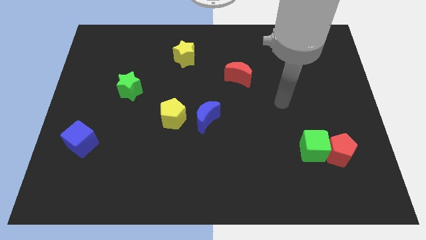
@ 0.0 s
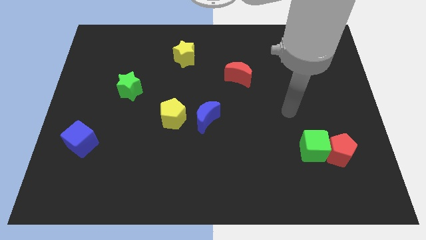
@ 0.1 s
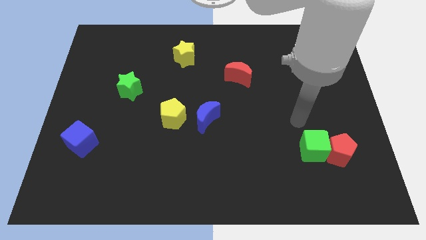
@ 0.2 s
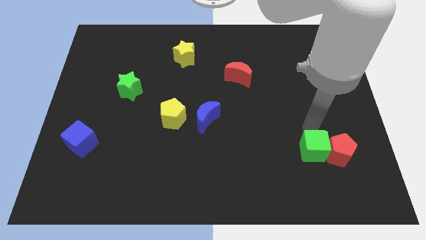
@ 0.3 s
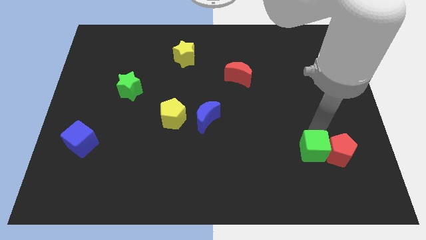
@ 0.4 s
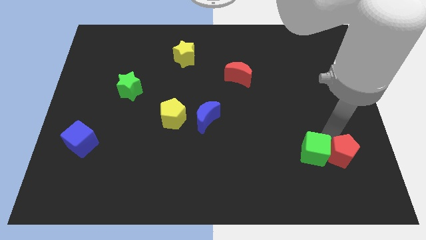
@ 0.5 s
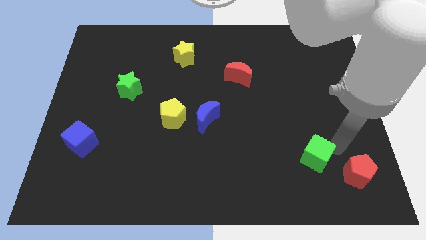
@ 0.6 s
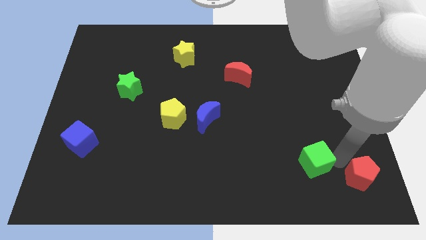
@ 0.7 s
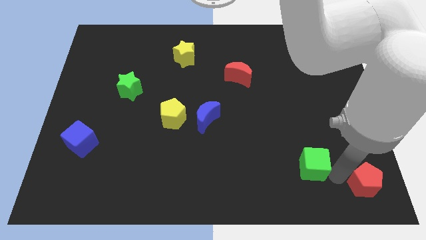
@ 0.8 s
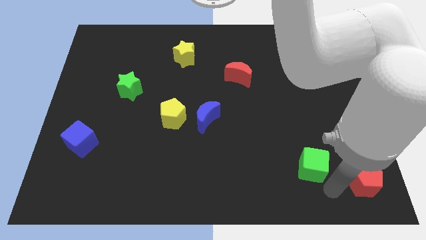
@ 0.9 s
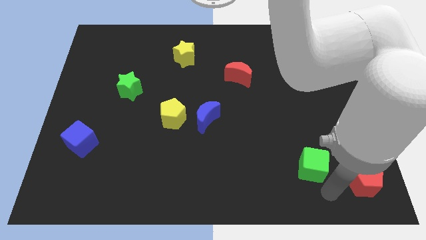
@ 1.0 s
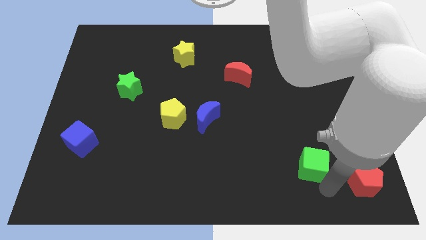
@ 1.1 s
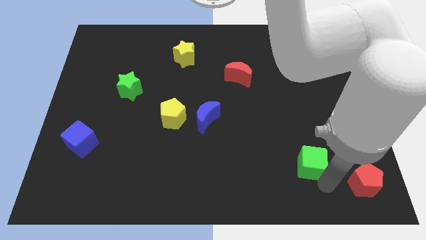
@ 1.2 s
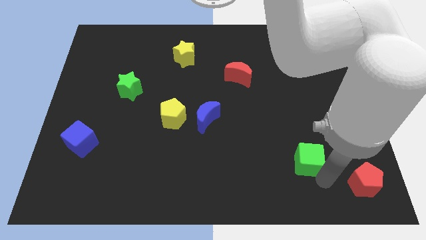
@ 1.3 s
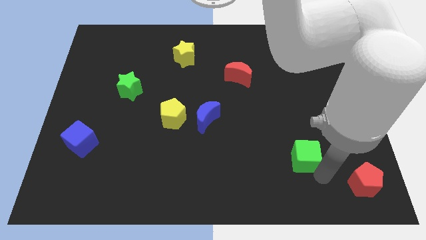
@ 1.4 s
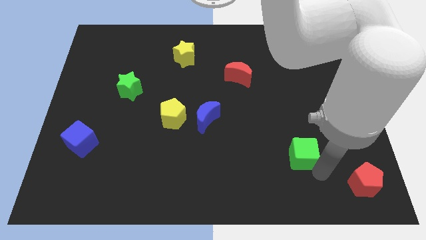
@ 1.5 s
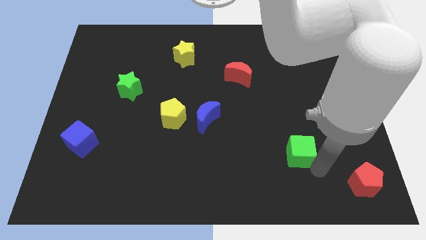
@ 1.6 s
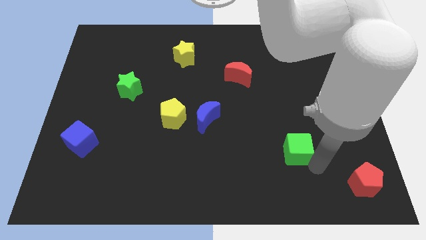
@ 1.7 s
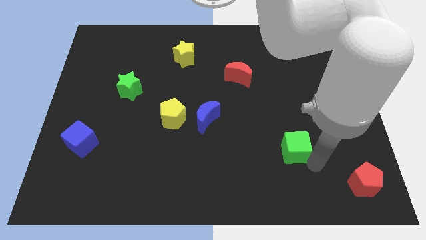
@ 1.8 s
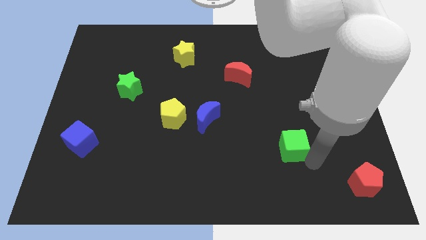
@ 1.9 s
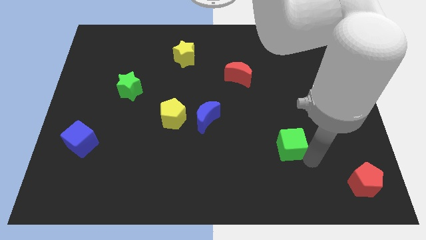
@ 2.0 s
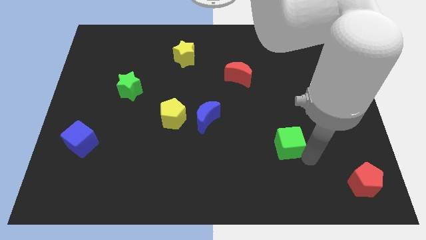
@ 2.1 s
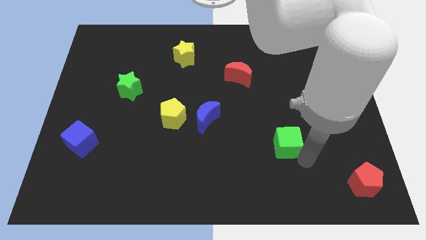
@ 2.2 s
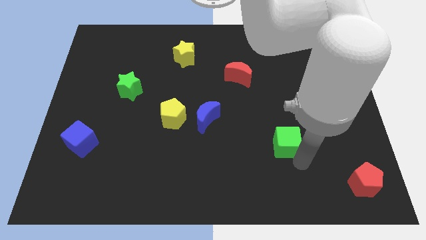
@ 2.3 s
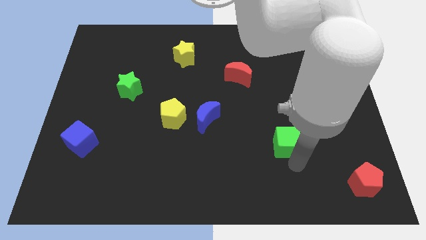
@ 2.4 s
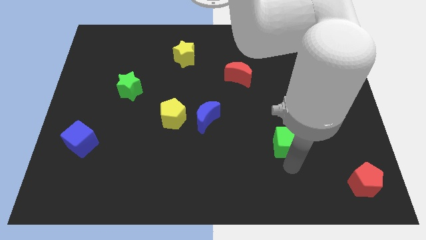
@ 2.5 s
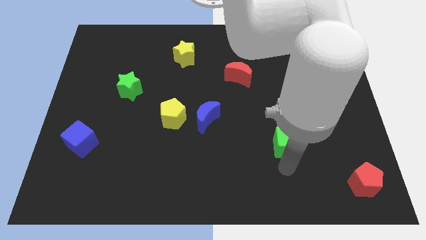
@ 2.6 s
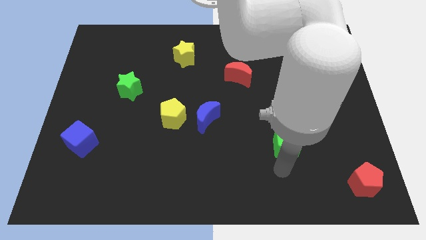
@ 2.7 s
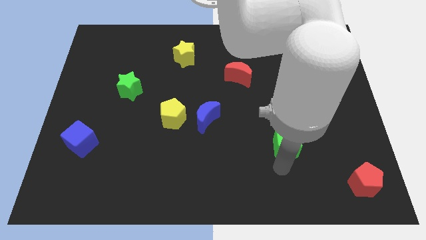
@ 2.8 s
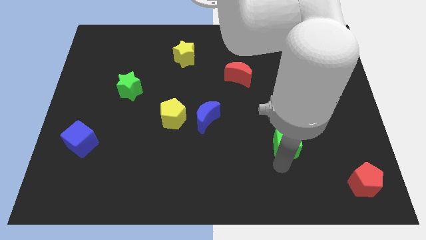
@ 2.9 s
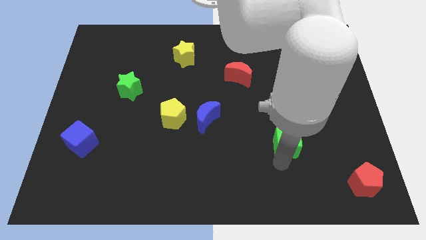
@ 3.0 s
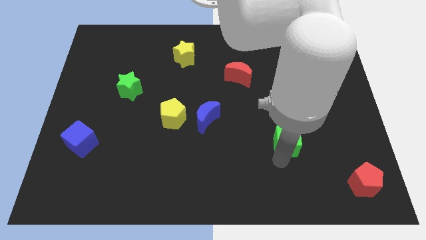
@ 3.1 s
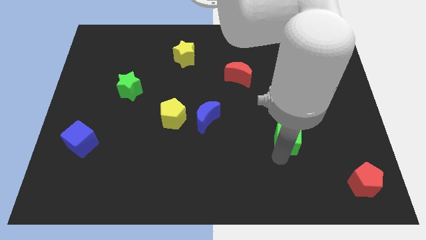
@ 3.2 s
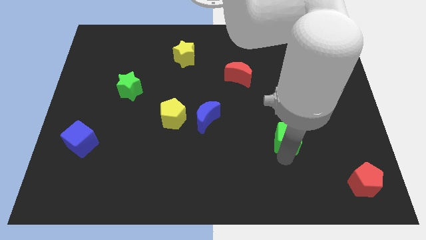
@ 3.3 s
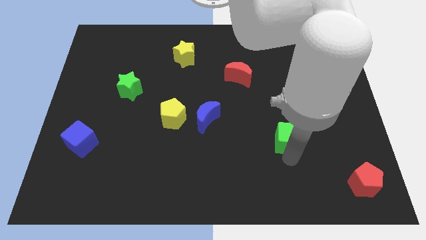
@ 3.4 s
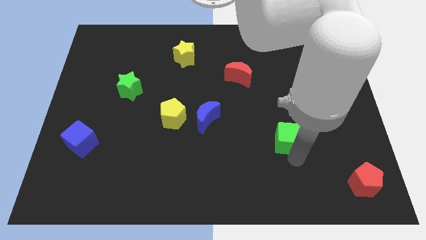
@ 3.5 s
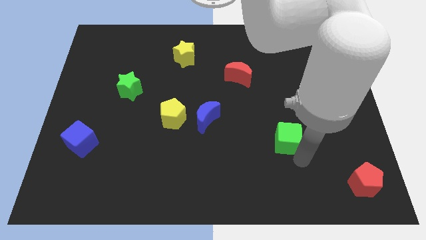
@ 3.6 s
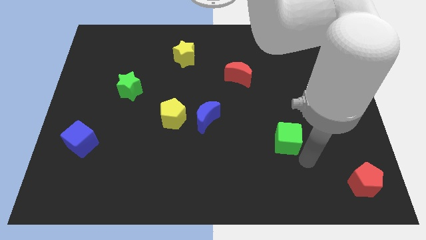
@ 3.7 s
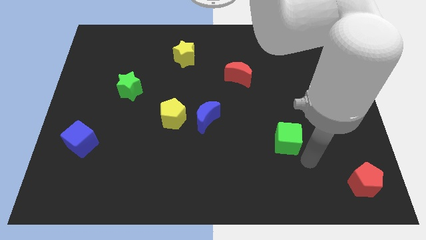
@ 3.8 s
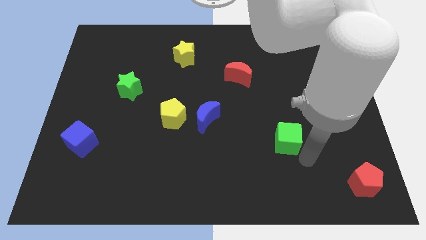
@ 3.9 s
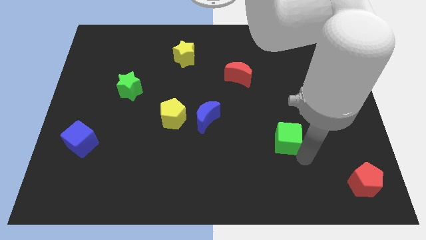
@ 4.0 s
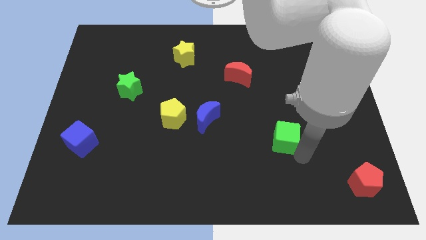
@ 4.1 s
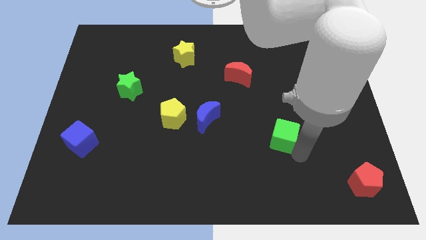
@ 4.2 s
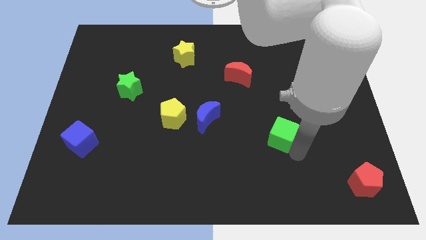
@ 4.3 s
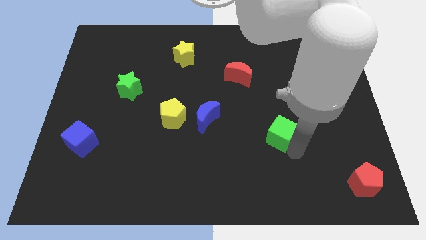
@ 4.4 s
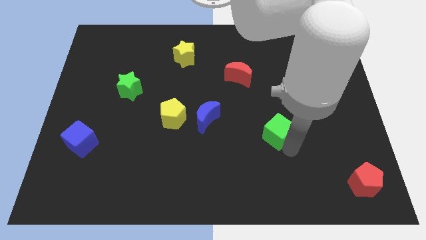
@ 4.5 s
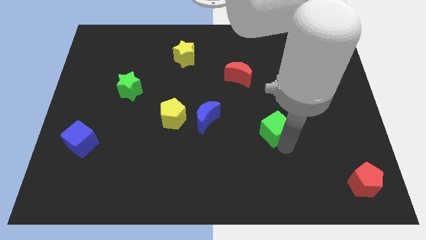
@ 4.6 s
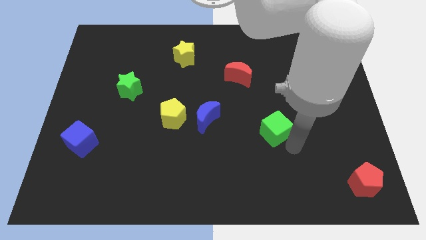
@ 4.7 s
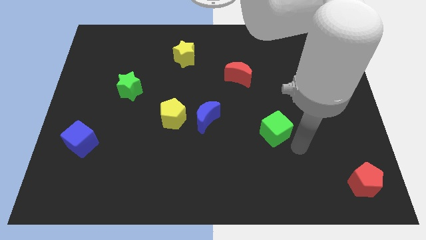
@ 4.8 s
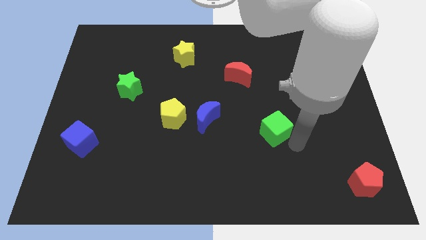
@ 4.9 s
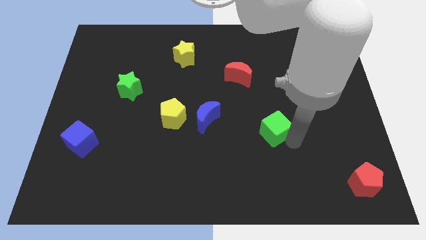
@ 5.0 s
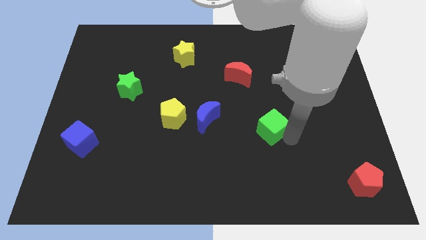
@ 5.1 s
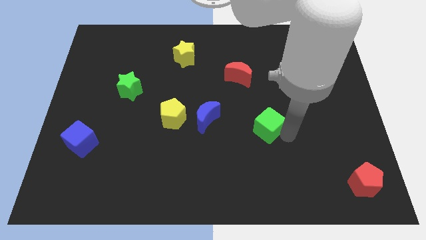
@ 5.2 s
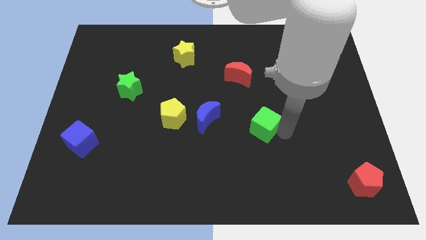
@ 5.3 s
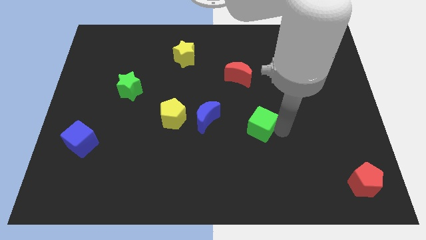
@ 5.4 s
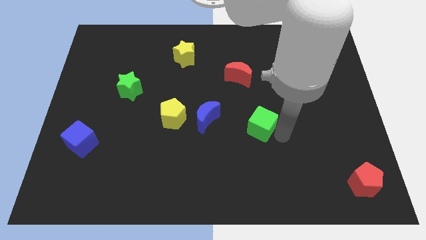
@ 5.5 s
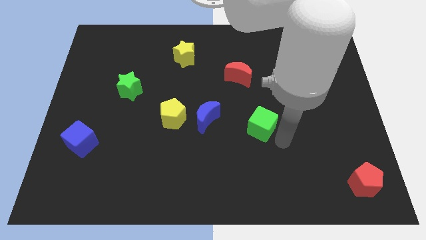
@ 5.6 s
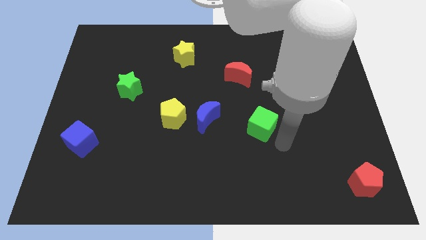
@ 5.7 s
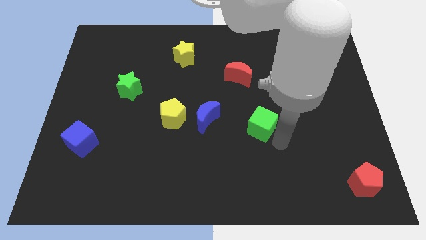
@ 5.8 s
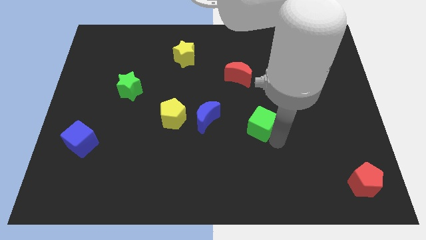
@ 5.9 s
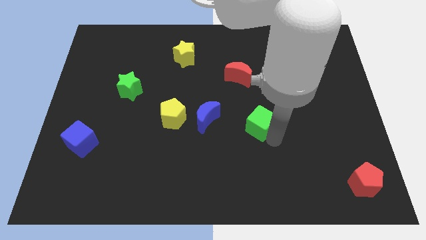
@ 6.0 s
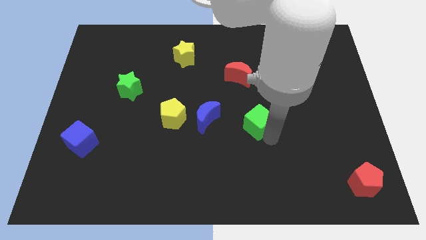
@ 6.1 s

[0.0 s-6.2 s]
slide the green cube to the bottom of the red moon
